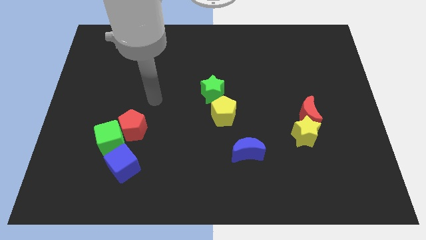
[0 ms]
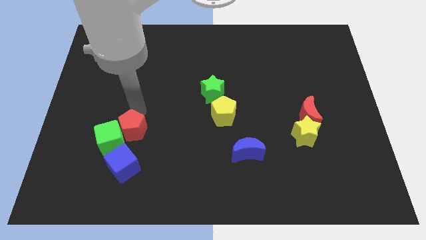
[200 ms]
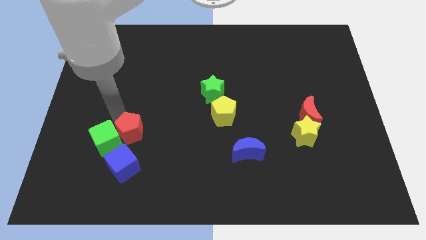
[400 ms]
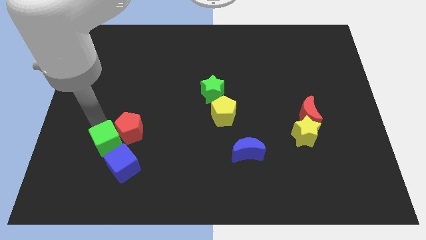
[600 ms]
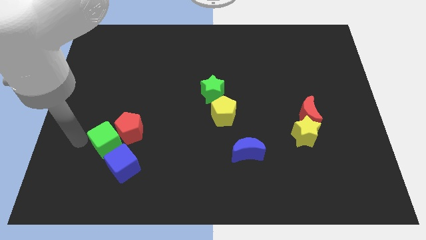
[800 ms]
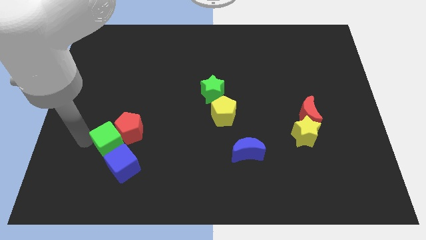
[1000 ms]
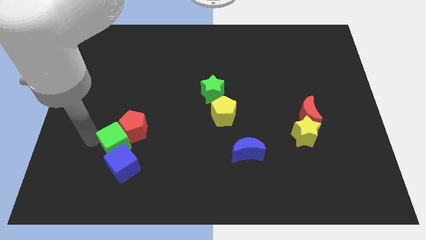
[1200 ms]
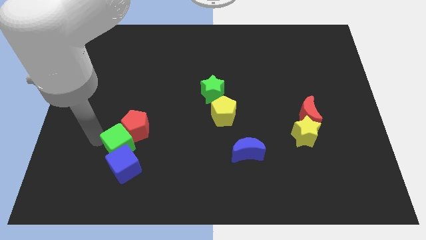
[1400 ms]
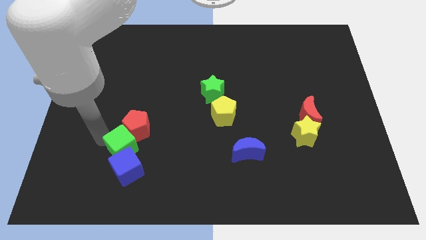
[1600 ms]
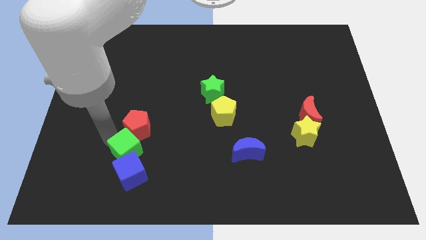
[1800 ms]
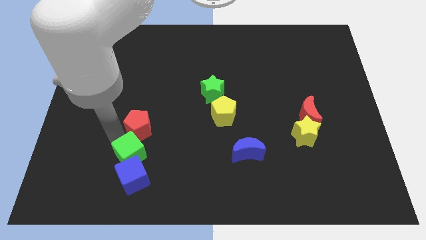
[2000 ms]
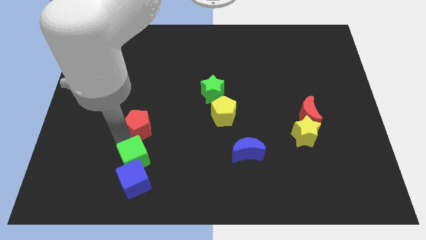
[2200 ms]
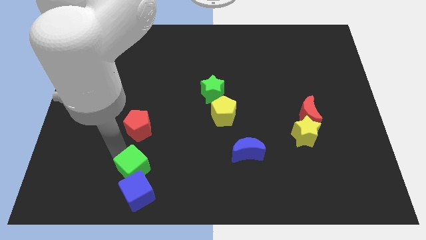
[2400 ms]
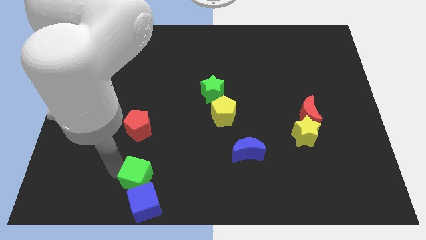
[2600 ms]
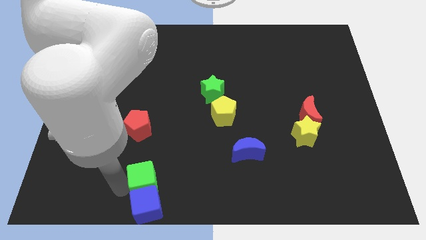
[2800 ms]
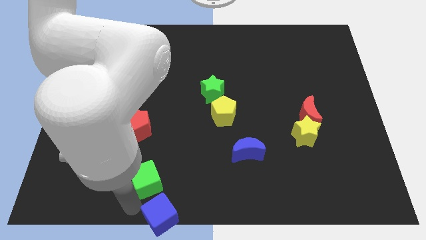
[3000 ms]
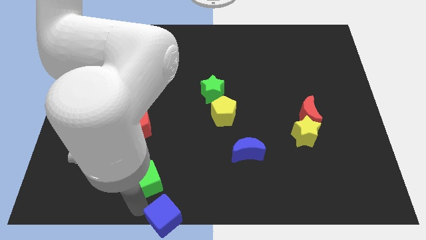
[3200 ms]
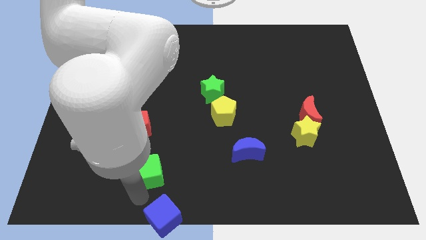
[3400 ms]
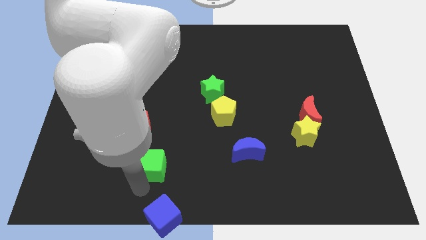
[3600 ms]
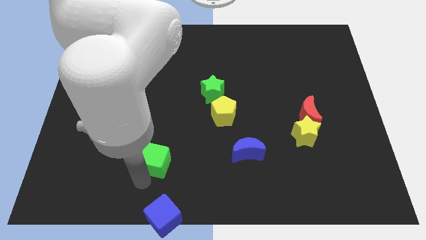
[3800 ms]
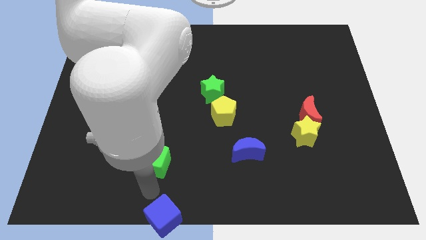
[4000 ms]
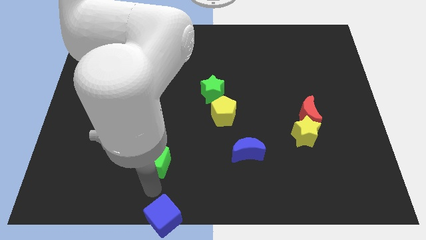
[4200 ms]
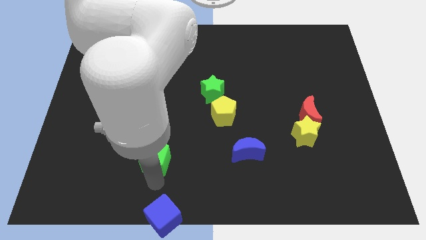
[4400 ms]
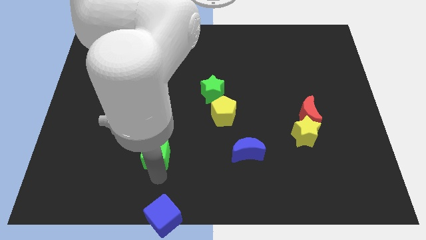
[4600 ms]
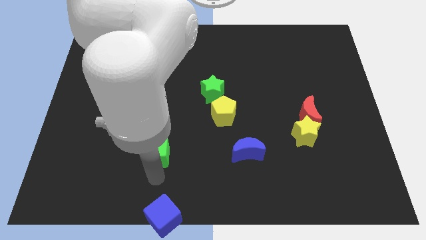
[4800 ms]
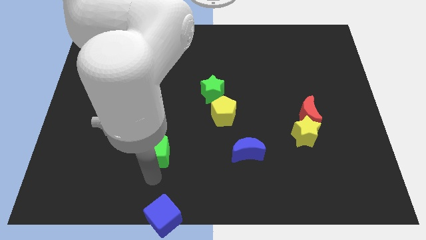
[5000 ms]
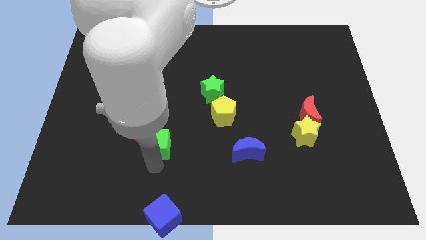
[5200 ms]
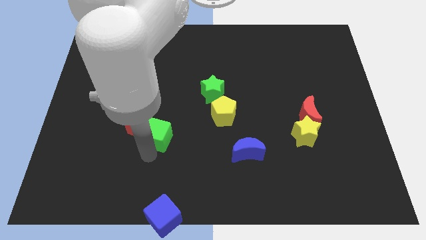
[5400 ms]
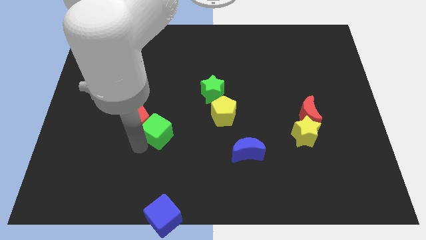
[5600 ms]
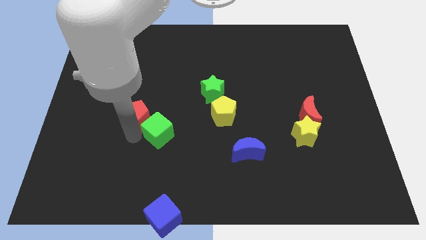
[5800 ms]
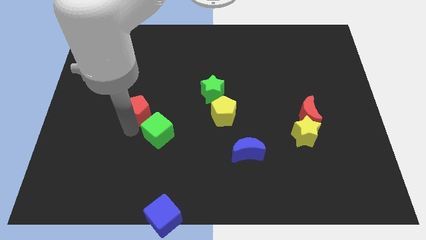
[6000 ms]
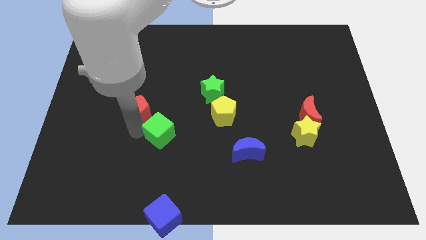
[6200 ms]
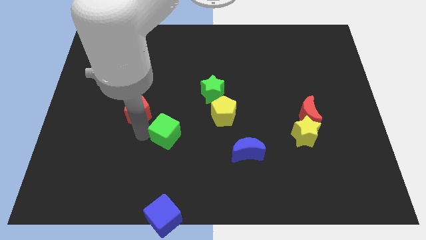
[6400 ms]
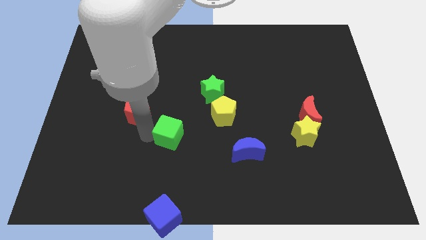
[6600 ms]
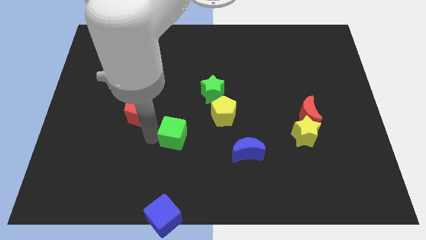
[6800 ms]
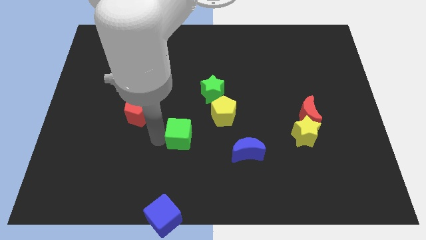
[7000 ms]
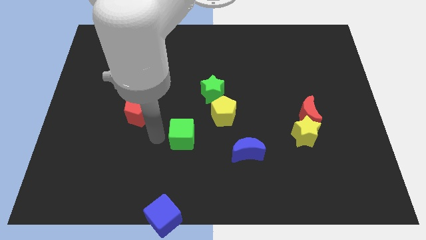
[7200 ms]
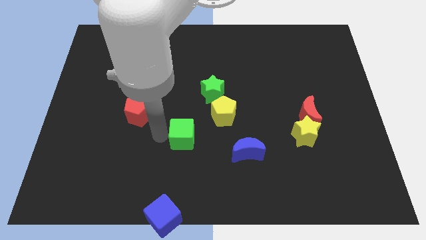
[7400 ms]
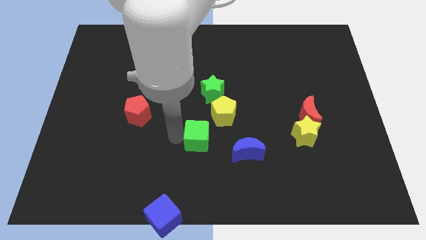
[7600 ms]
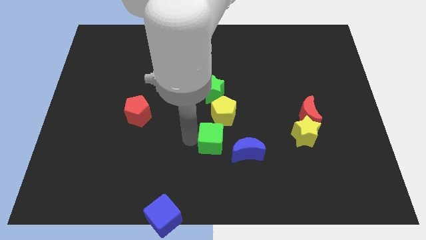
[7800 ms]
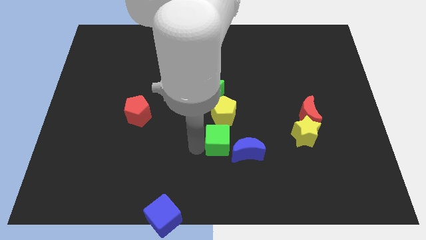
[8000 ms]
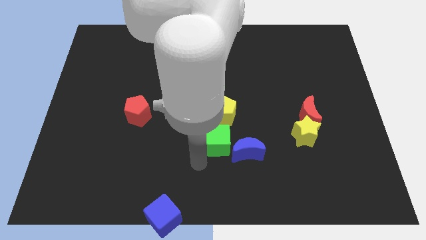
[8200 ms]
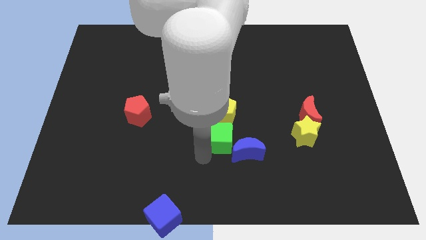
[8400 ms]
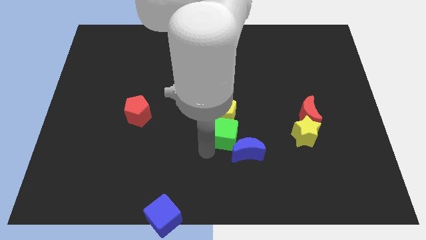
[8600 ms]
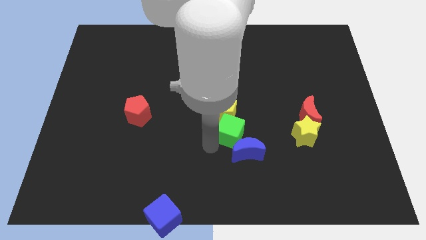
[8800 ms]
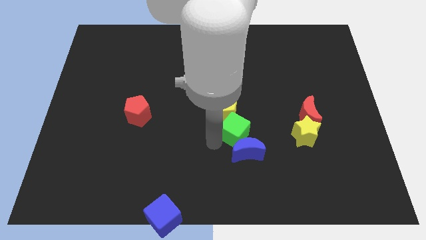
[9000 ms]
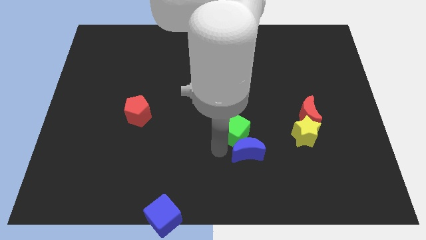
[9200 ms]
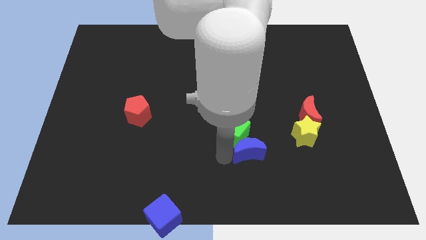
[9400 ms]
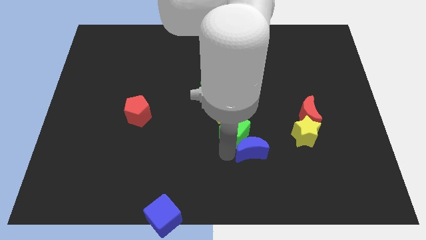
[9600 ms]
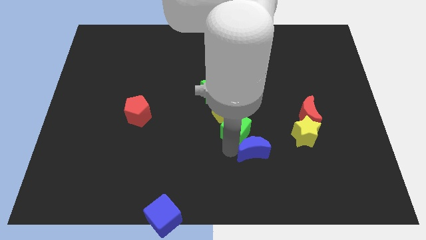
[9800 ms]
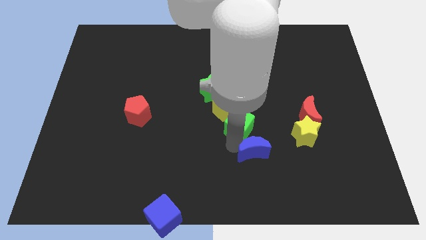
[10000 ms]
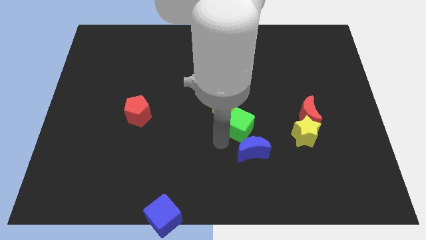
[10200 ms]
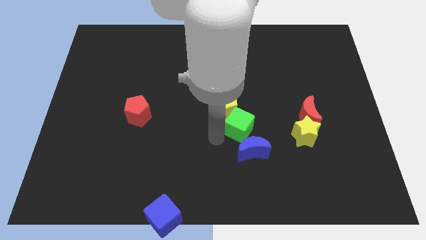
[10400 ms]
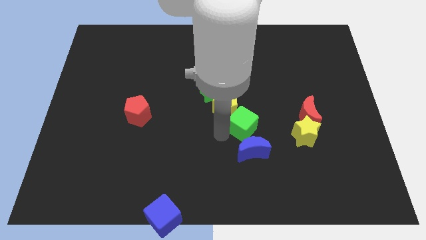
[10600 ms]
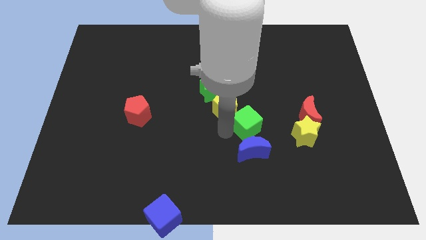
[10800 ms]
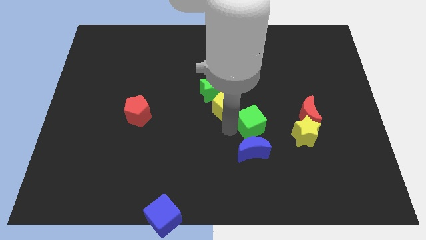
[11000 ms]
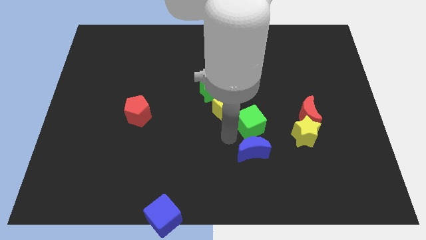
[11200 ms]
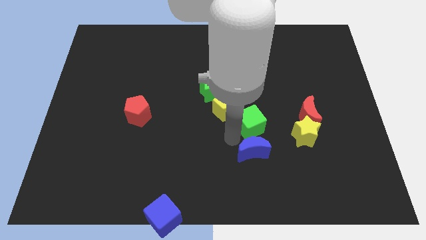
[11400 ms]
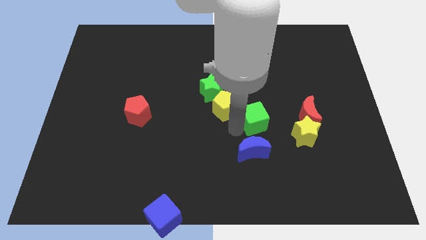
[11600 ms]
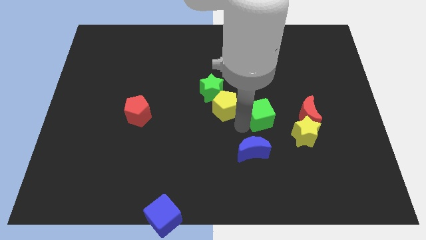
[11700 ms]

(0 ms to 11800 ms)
slide the green cube to the top left side of the yellow star

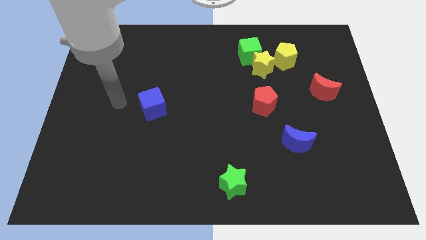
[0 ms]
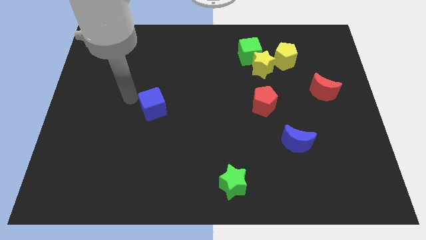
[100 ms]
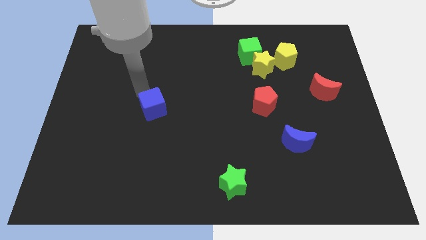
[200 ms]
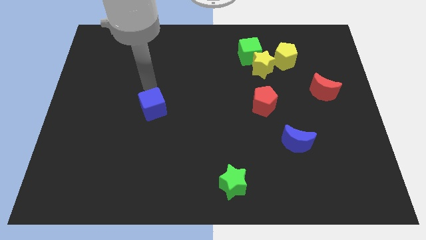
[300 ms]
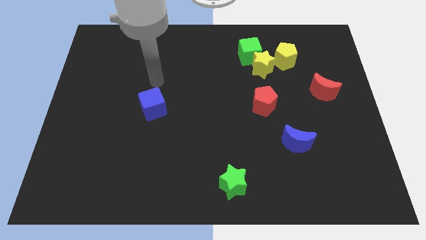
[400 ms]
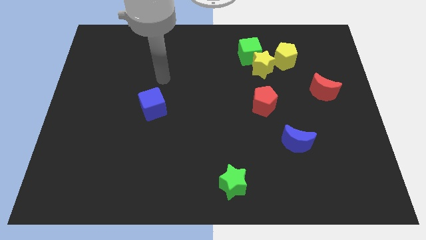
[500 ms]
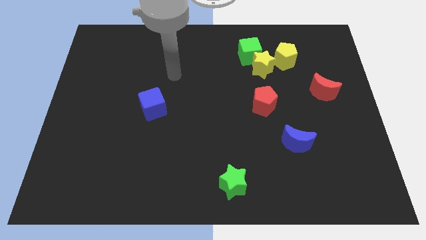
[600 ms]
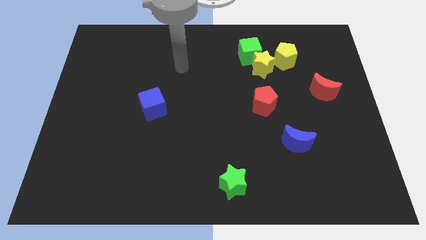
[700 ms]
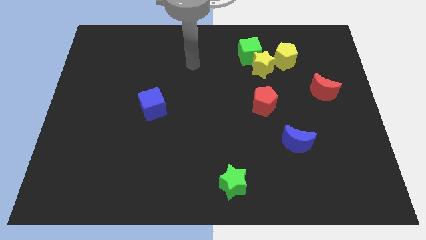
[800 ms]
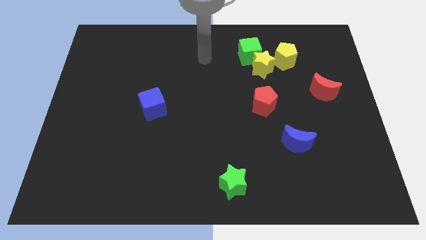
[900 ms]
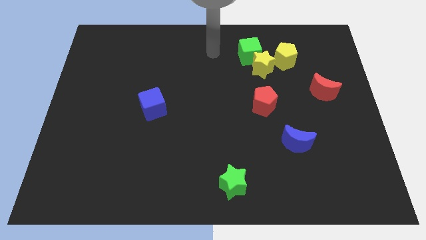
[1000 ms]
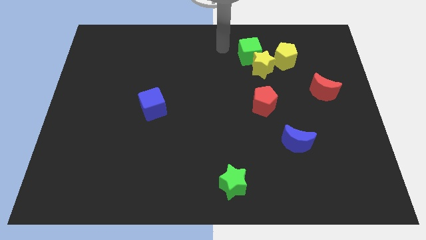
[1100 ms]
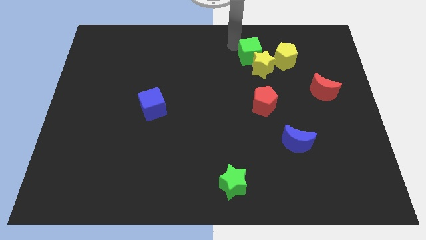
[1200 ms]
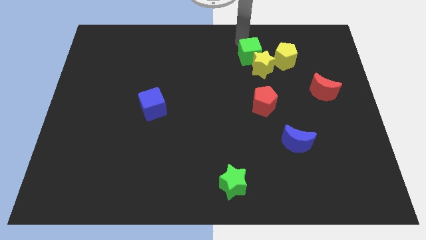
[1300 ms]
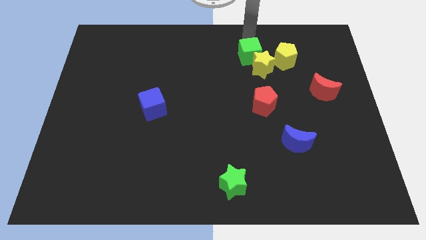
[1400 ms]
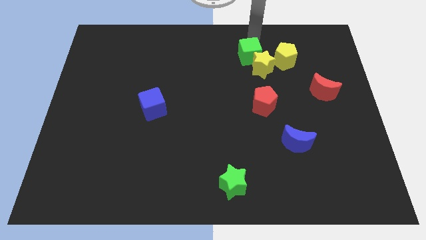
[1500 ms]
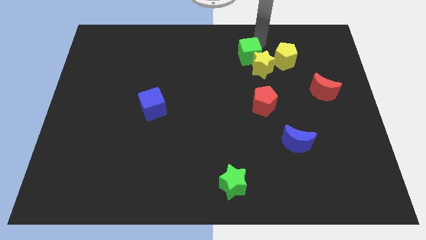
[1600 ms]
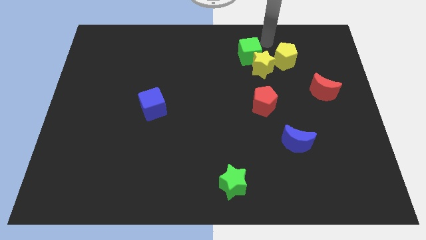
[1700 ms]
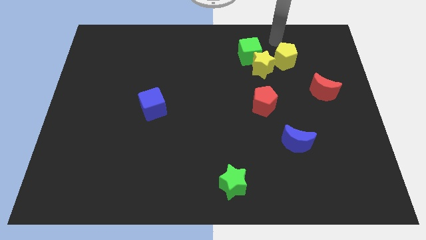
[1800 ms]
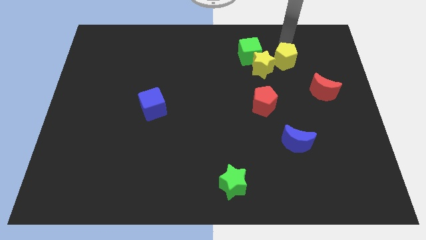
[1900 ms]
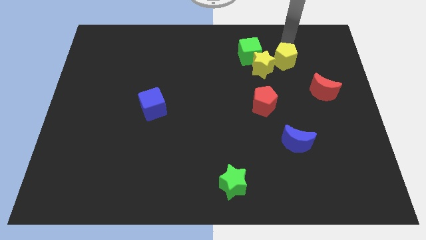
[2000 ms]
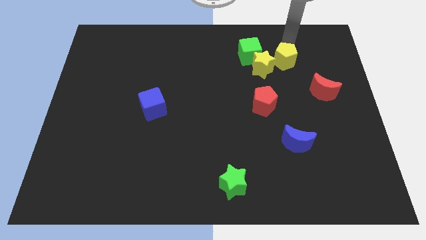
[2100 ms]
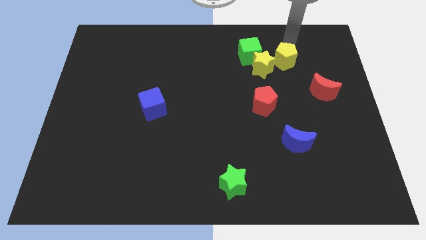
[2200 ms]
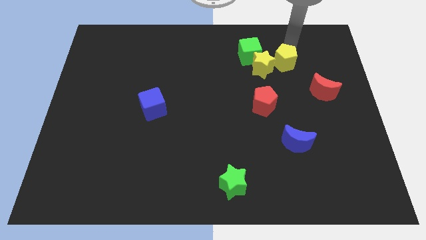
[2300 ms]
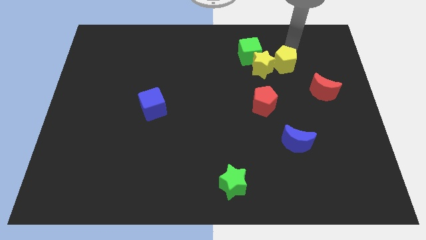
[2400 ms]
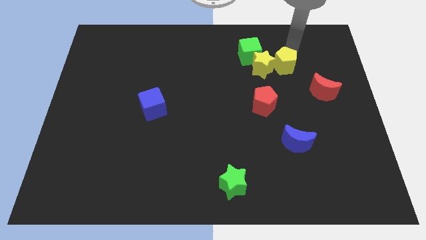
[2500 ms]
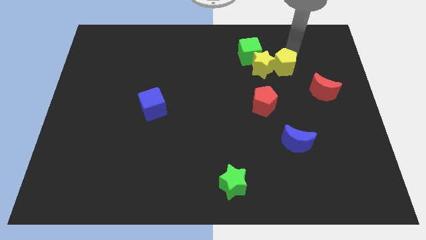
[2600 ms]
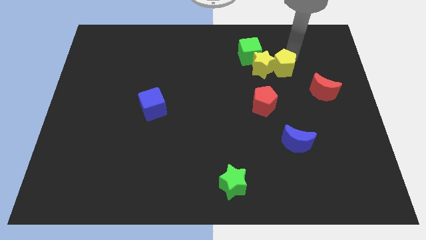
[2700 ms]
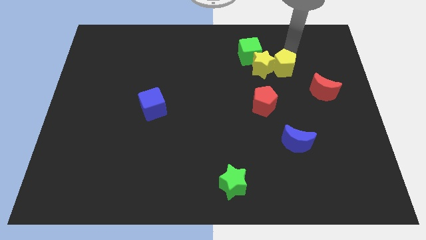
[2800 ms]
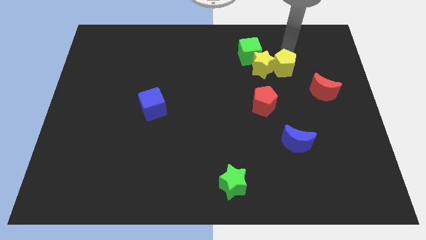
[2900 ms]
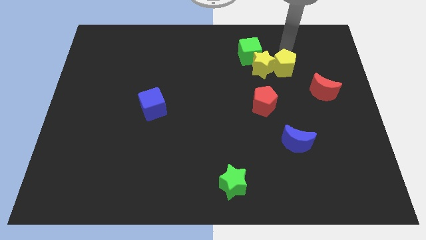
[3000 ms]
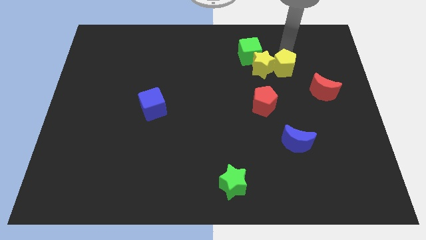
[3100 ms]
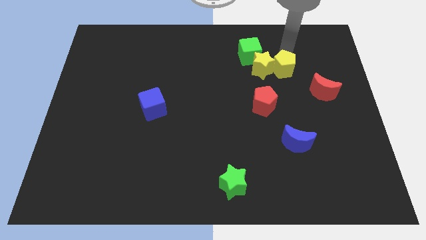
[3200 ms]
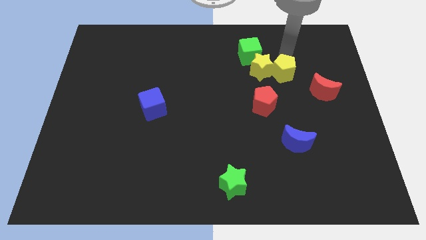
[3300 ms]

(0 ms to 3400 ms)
move the yellow pentagon to the top right of the red pentagon
